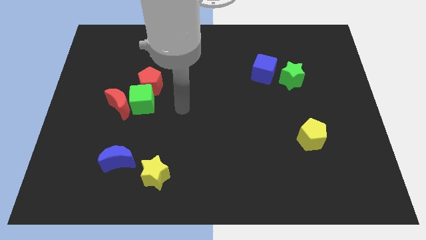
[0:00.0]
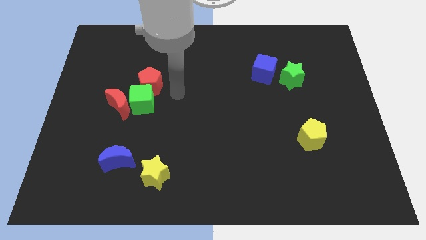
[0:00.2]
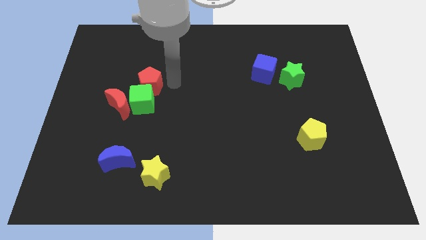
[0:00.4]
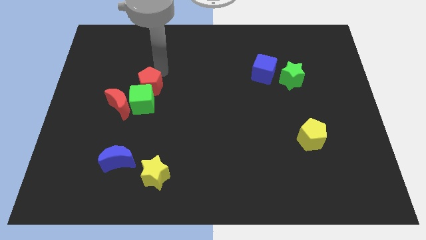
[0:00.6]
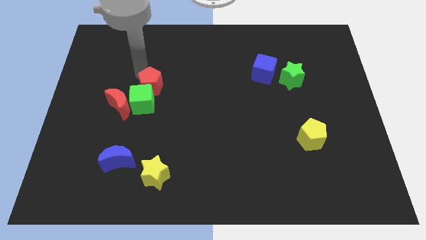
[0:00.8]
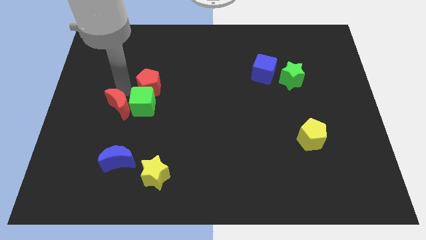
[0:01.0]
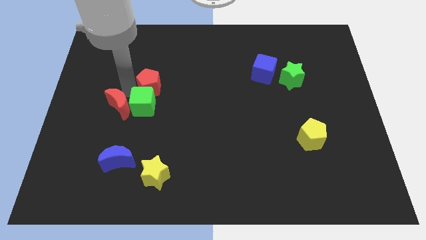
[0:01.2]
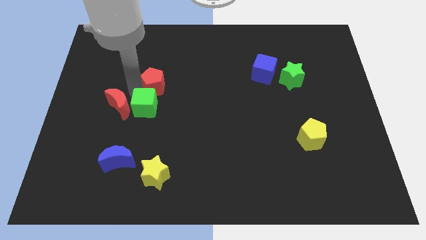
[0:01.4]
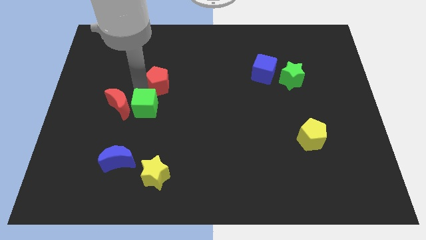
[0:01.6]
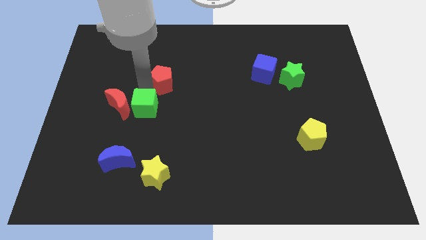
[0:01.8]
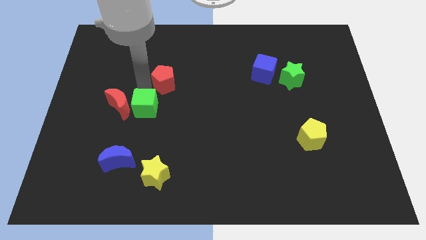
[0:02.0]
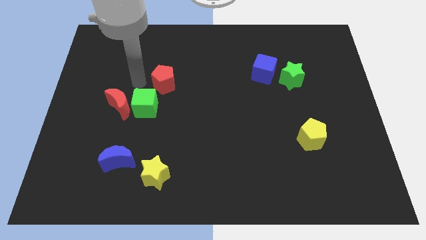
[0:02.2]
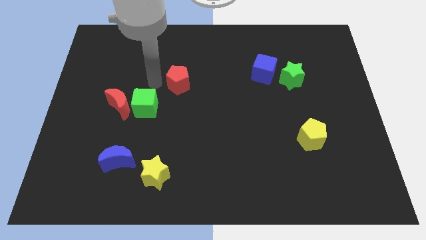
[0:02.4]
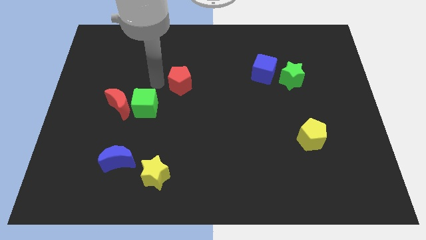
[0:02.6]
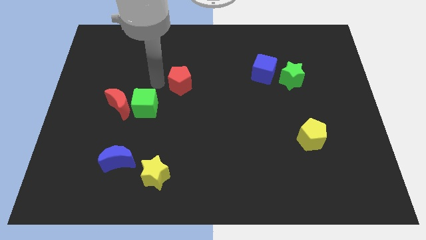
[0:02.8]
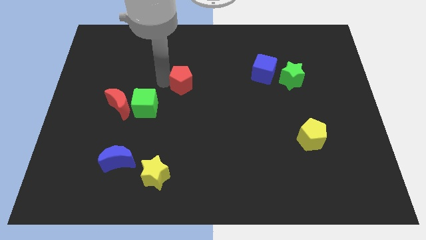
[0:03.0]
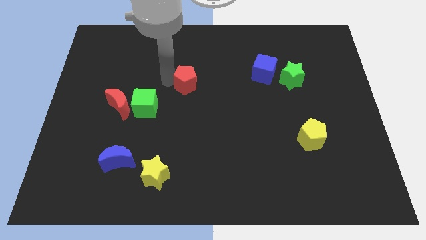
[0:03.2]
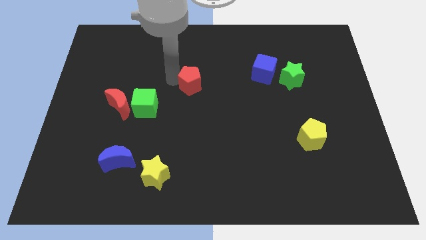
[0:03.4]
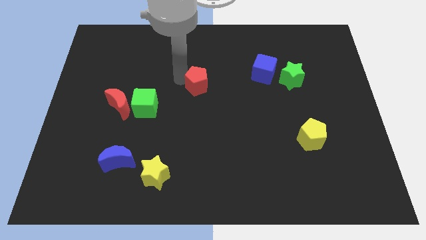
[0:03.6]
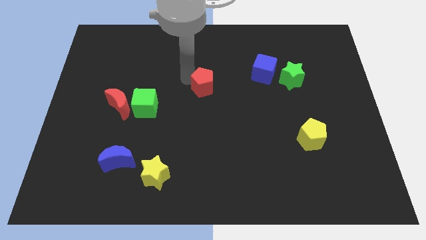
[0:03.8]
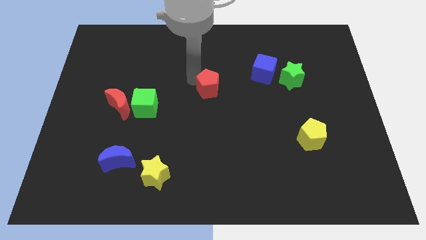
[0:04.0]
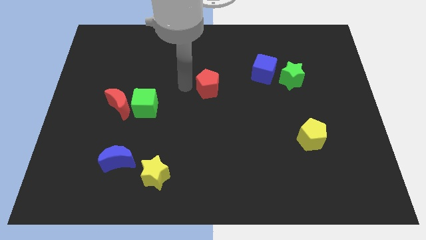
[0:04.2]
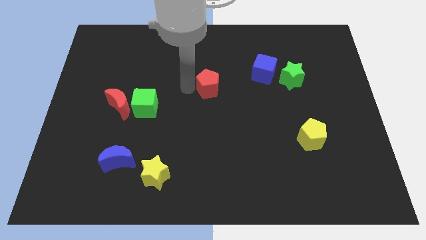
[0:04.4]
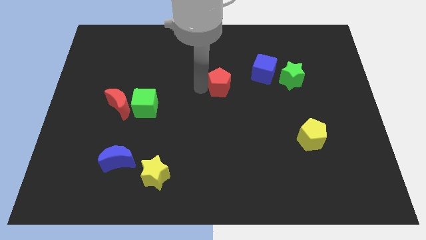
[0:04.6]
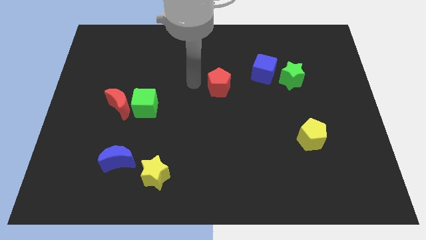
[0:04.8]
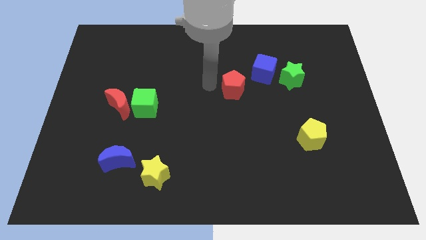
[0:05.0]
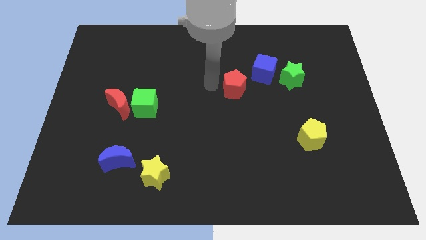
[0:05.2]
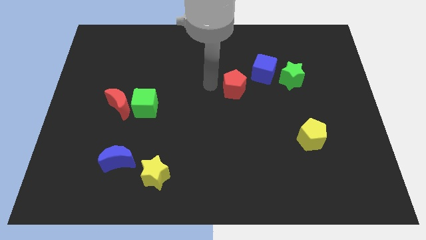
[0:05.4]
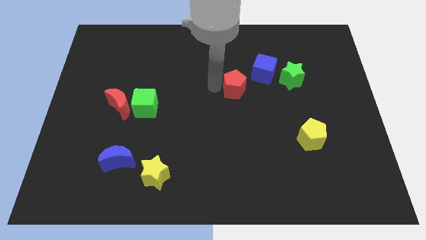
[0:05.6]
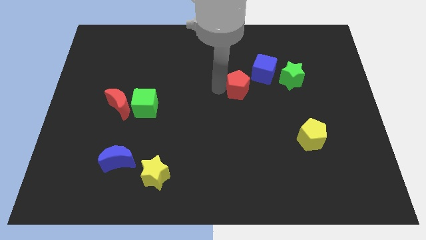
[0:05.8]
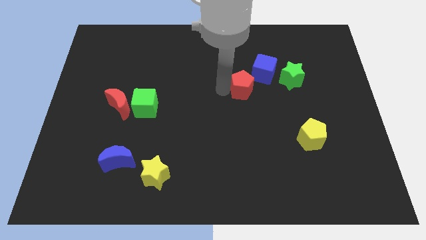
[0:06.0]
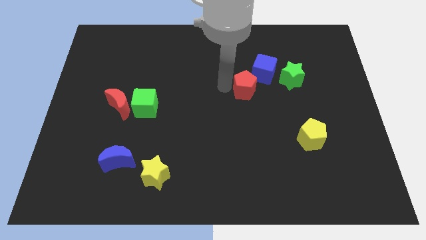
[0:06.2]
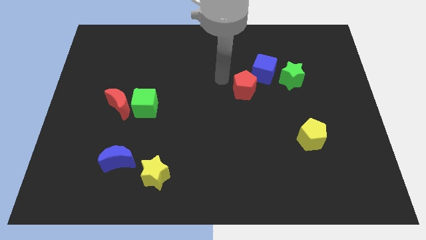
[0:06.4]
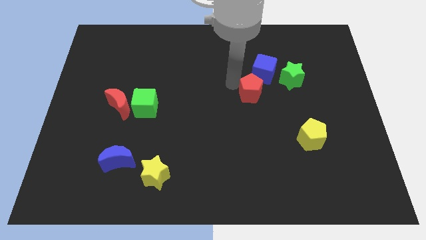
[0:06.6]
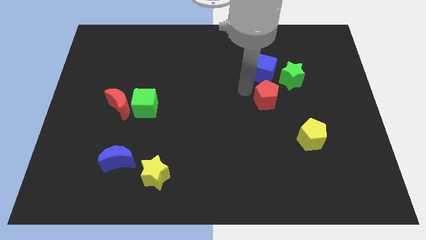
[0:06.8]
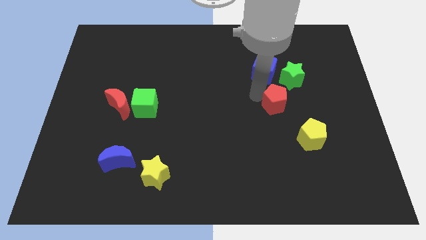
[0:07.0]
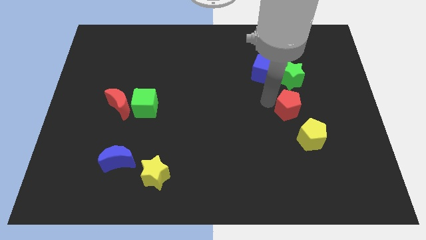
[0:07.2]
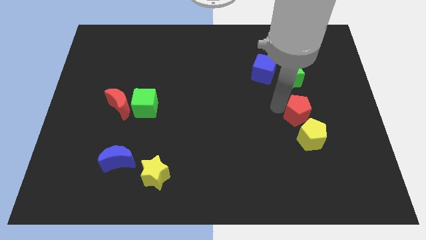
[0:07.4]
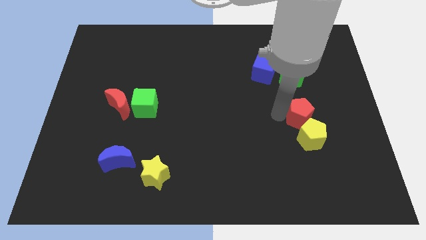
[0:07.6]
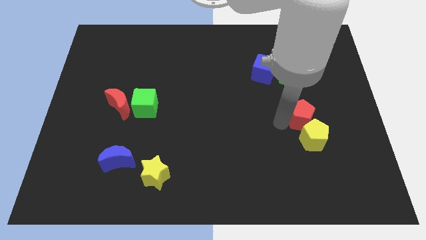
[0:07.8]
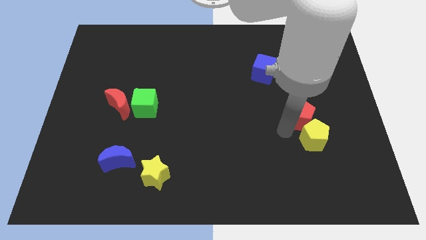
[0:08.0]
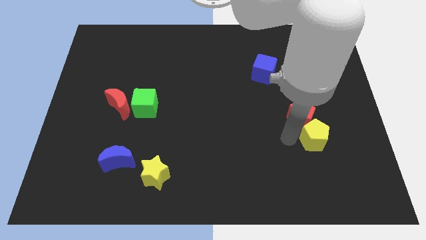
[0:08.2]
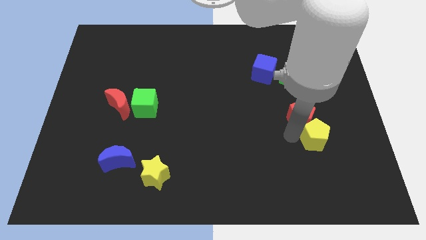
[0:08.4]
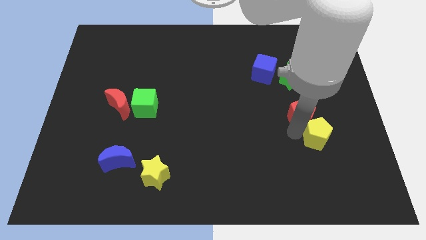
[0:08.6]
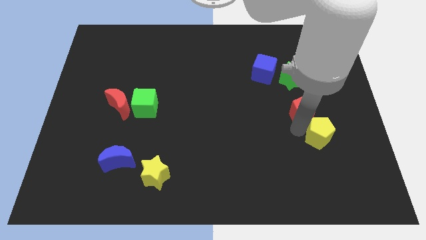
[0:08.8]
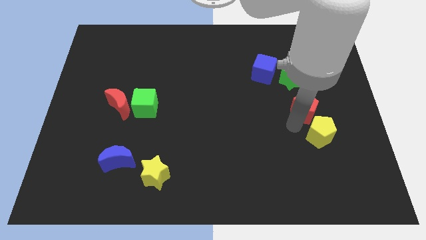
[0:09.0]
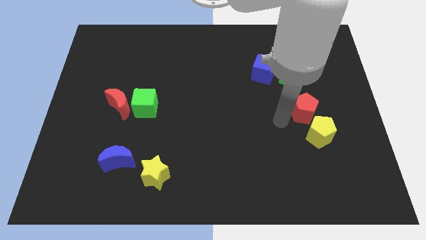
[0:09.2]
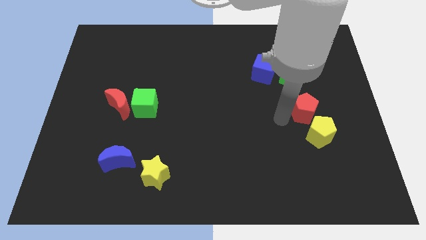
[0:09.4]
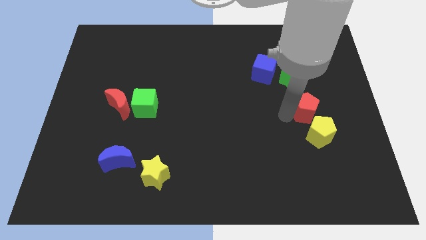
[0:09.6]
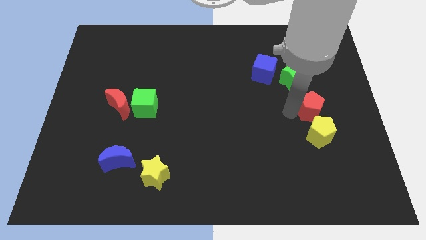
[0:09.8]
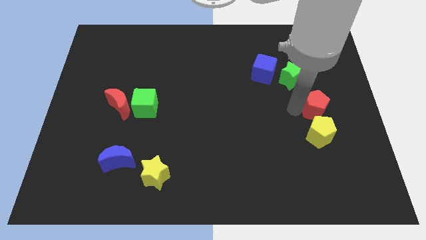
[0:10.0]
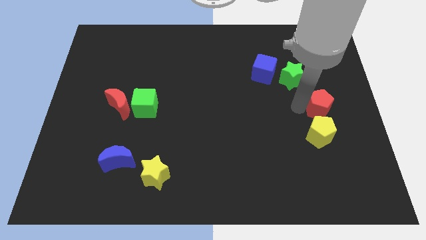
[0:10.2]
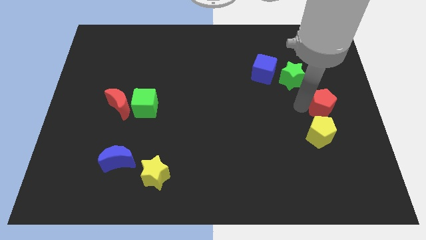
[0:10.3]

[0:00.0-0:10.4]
push the red pentagon to the center right
